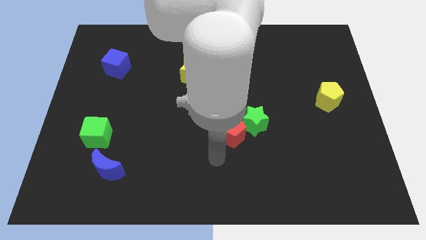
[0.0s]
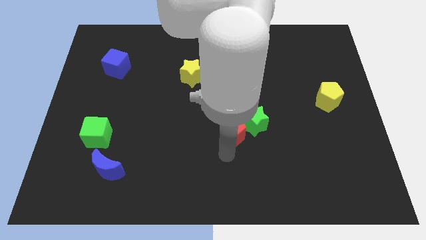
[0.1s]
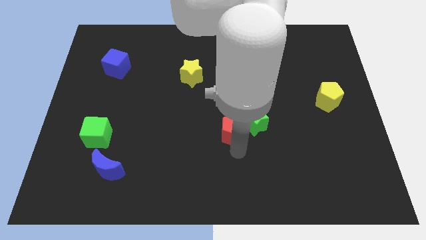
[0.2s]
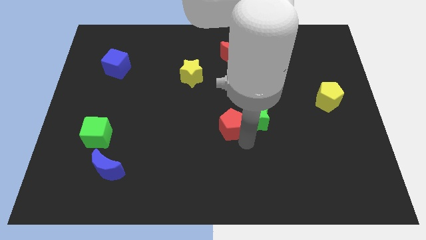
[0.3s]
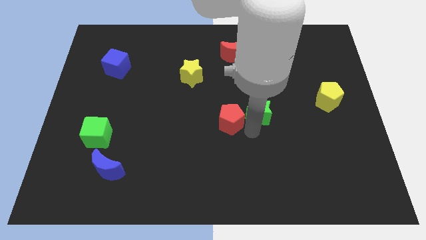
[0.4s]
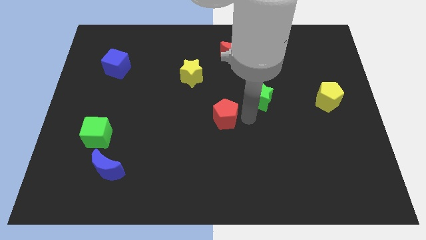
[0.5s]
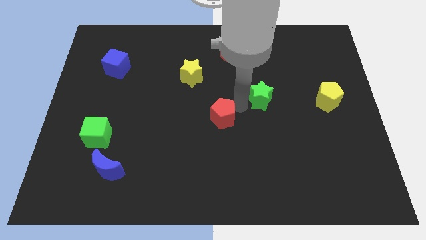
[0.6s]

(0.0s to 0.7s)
move the red pentagon away from the green star

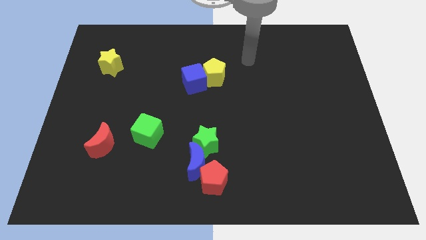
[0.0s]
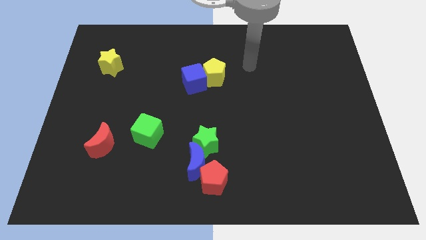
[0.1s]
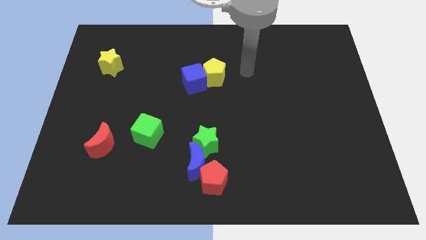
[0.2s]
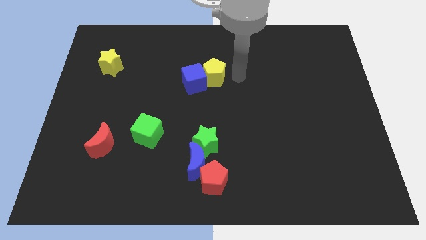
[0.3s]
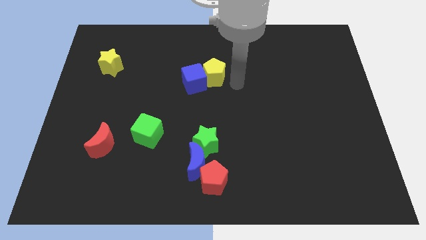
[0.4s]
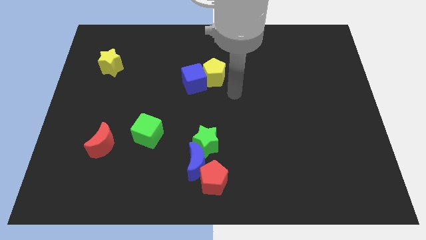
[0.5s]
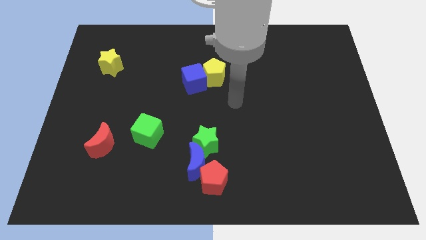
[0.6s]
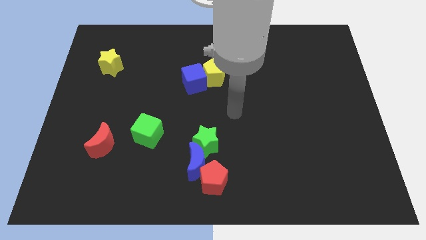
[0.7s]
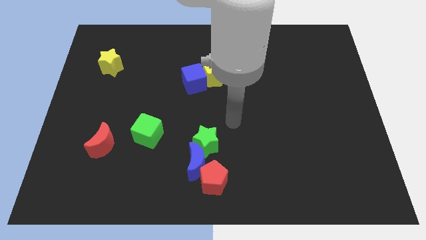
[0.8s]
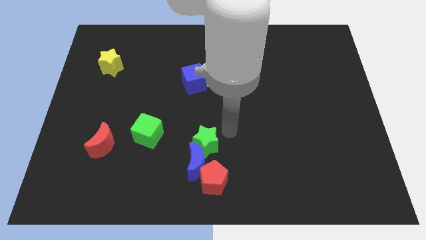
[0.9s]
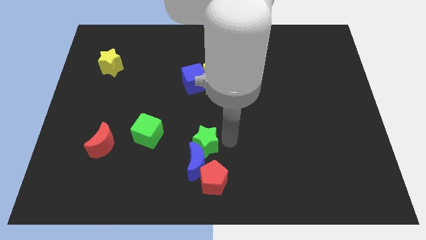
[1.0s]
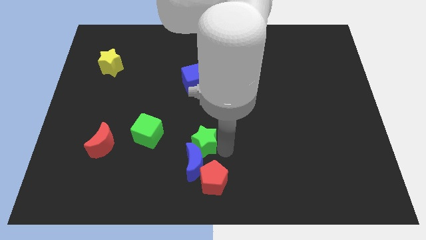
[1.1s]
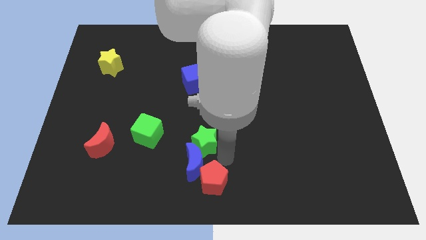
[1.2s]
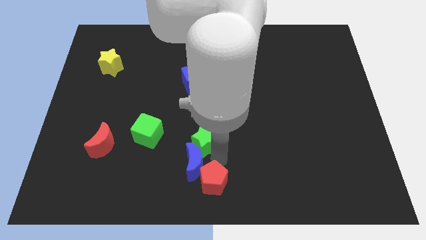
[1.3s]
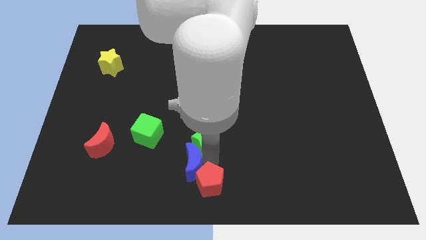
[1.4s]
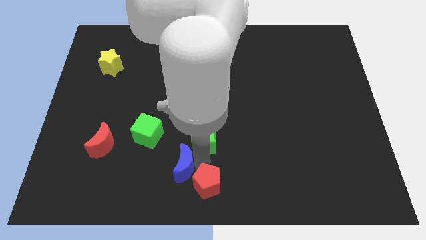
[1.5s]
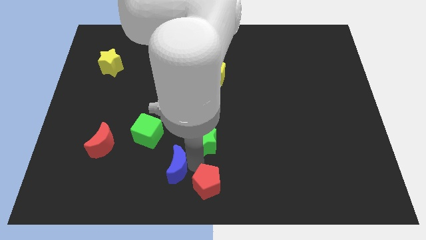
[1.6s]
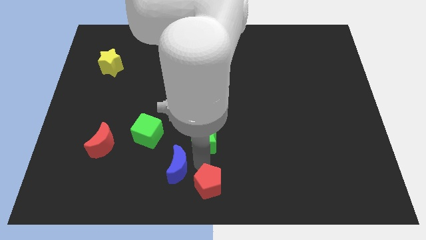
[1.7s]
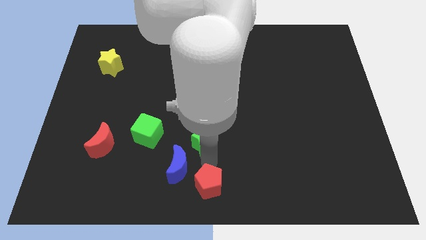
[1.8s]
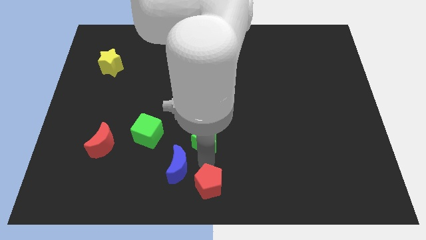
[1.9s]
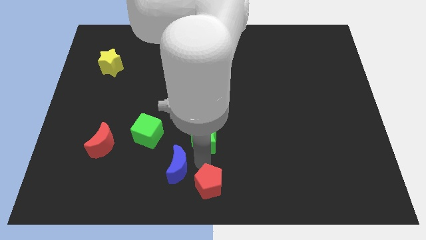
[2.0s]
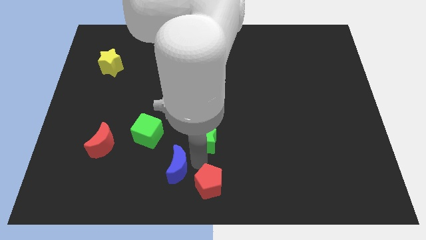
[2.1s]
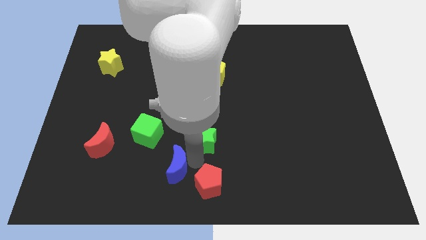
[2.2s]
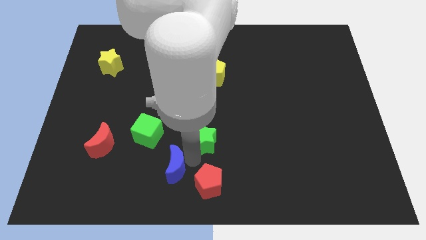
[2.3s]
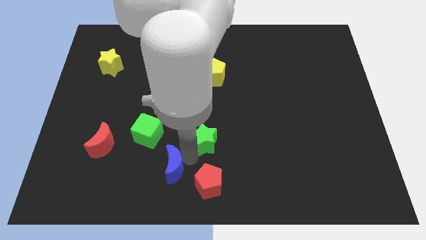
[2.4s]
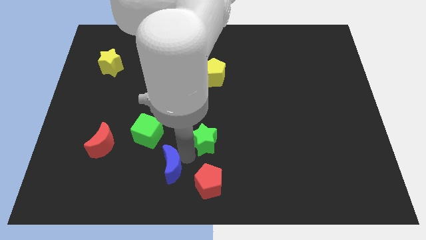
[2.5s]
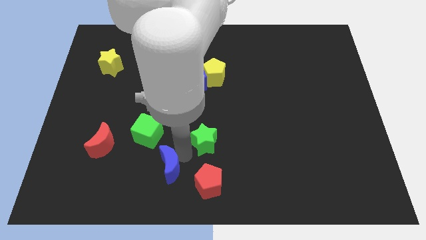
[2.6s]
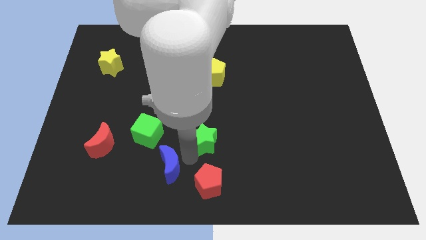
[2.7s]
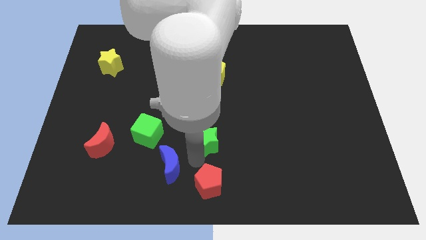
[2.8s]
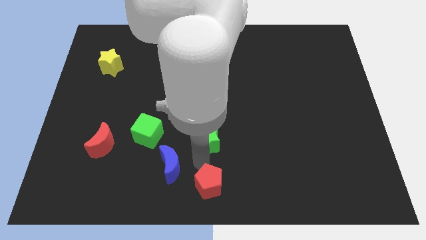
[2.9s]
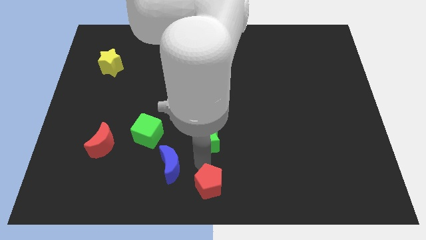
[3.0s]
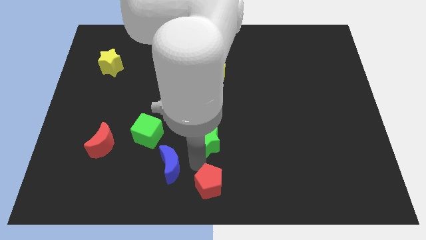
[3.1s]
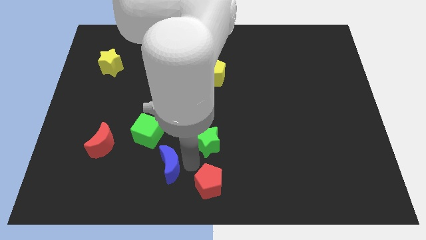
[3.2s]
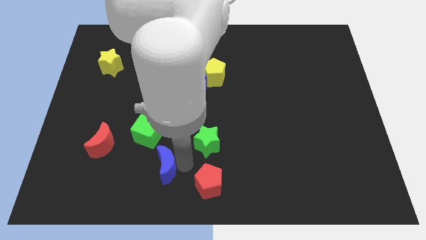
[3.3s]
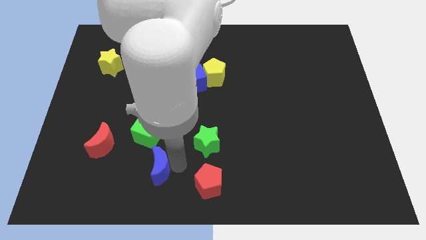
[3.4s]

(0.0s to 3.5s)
separate the blue moon from the green star and red pentagon

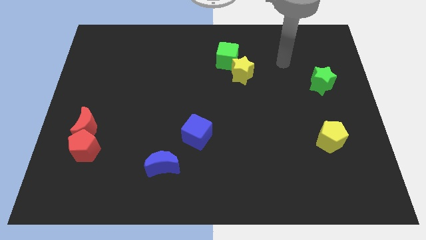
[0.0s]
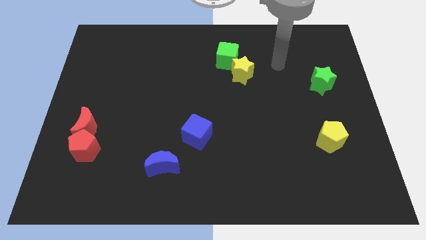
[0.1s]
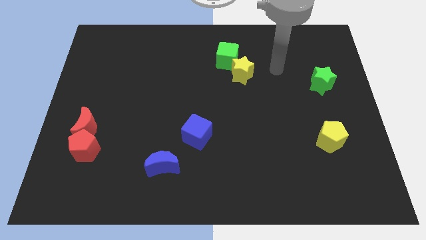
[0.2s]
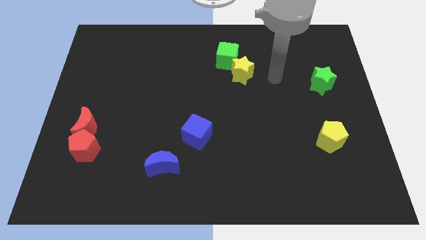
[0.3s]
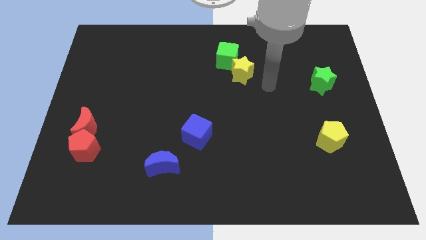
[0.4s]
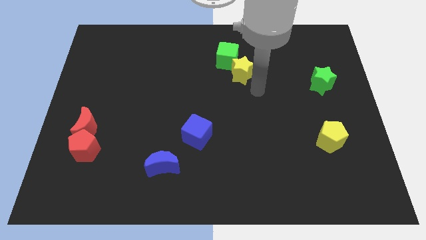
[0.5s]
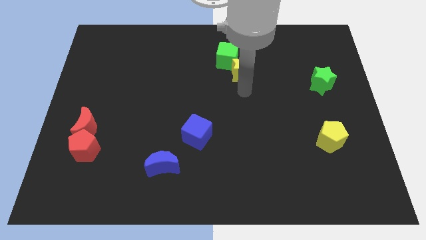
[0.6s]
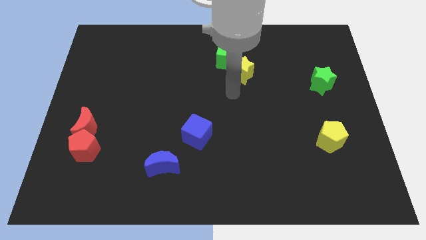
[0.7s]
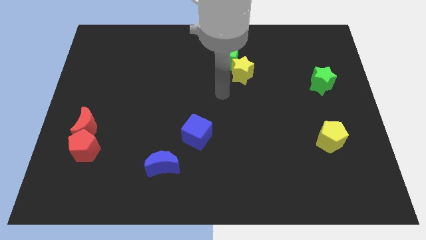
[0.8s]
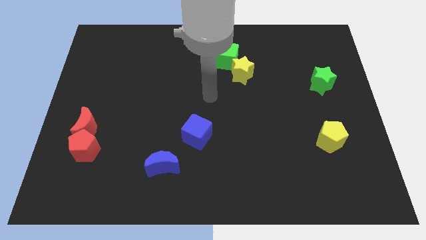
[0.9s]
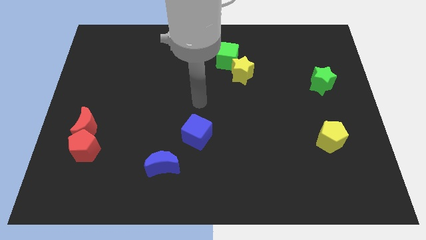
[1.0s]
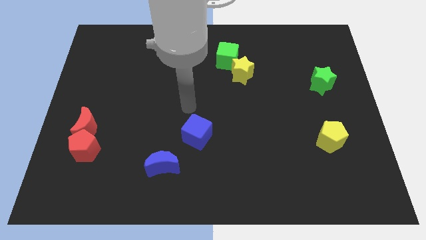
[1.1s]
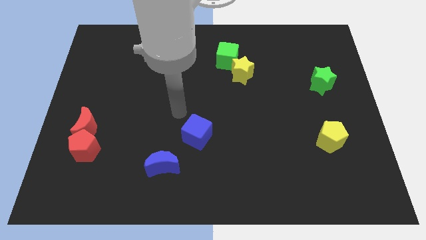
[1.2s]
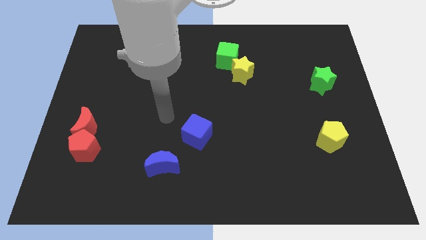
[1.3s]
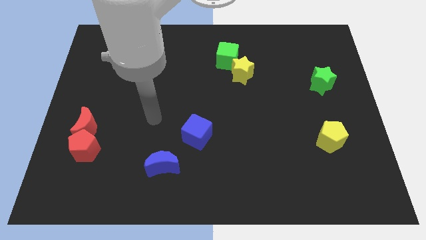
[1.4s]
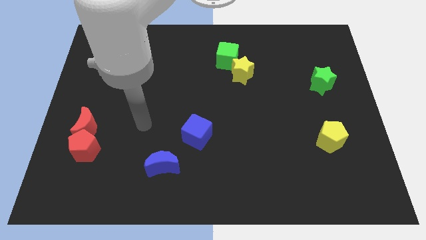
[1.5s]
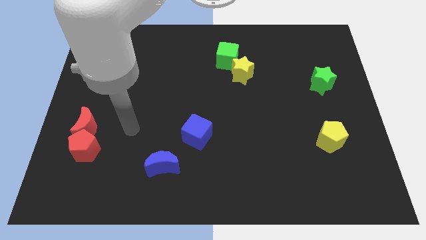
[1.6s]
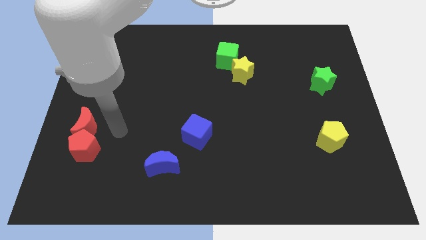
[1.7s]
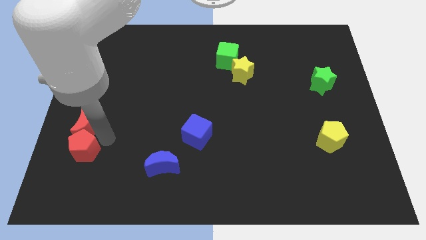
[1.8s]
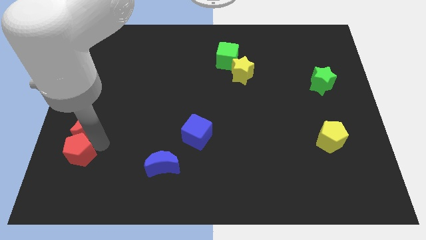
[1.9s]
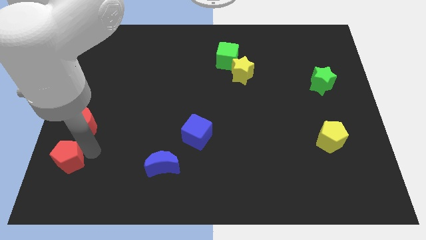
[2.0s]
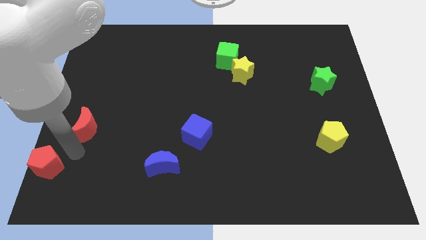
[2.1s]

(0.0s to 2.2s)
pull the red moon apart from the red pentagon

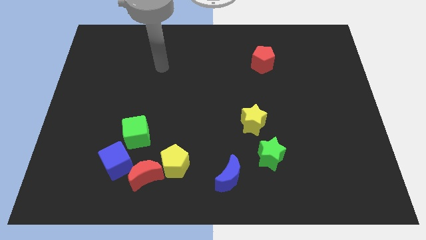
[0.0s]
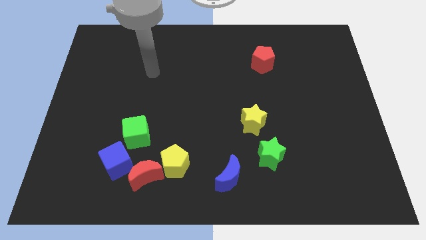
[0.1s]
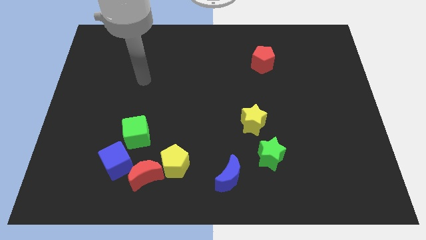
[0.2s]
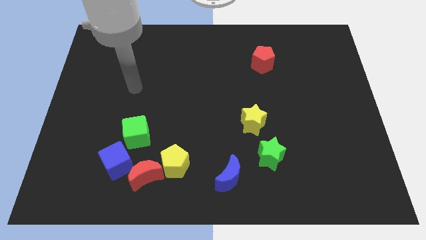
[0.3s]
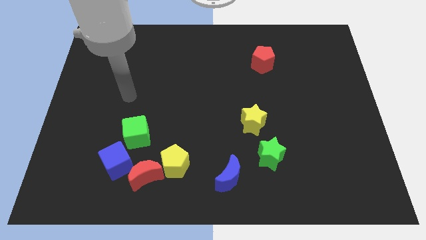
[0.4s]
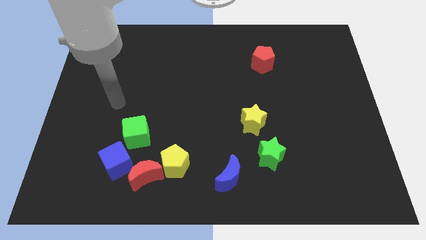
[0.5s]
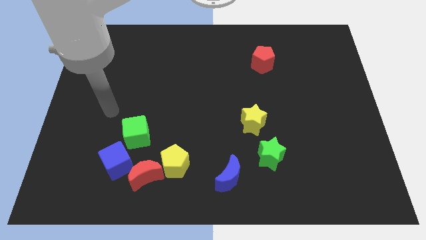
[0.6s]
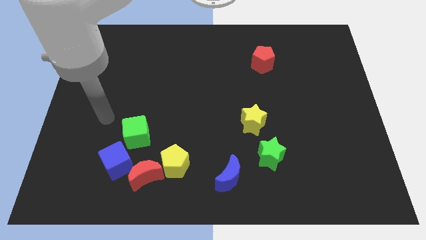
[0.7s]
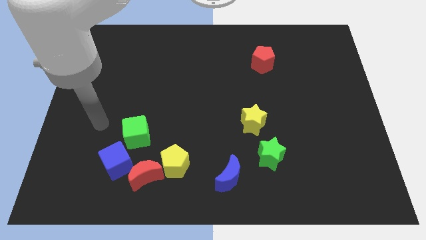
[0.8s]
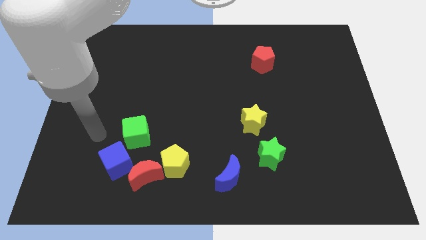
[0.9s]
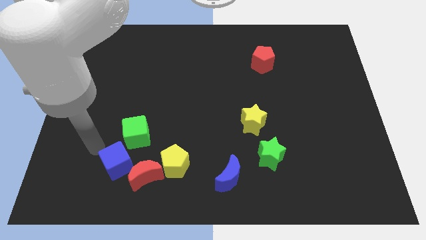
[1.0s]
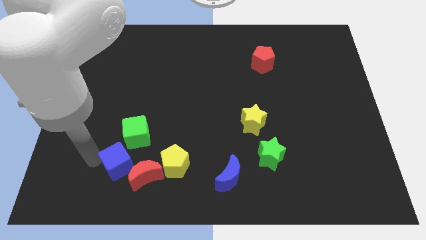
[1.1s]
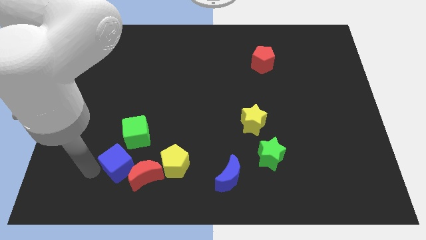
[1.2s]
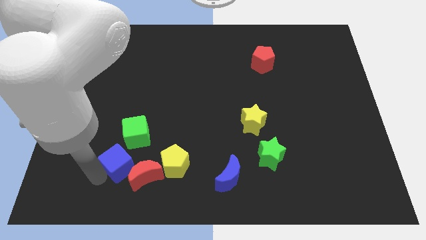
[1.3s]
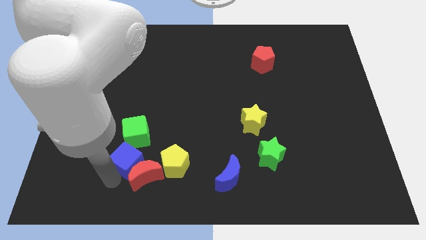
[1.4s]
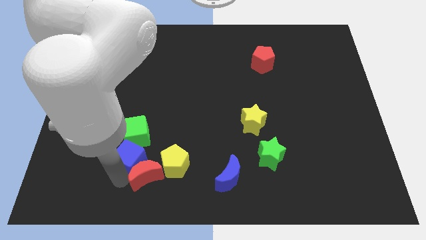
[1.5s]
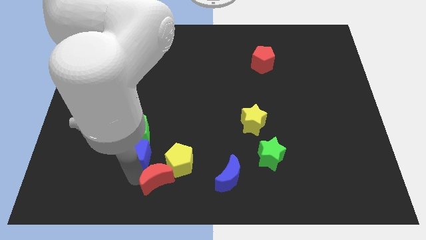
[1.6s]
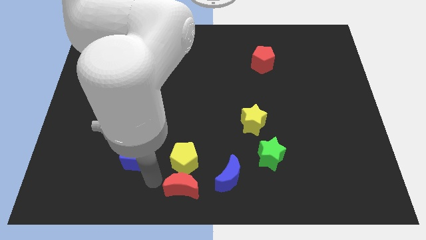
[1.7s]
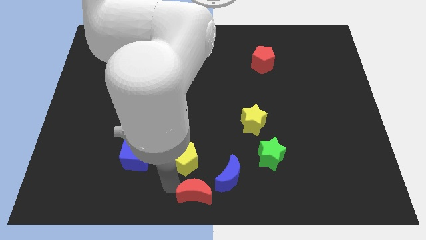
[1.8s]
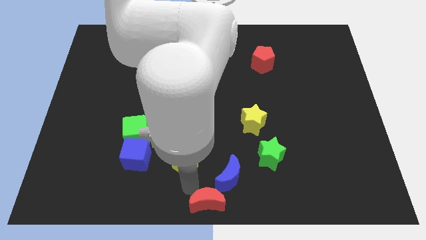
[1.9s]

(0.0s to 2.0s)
separate the yellow pentagon from the red moon

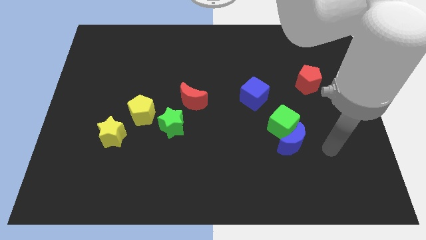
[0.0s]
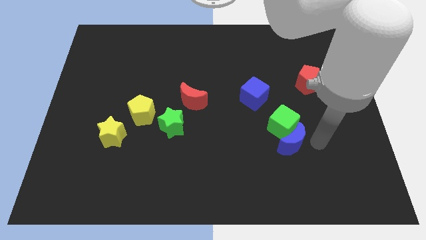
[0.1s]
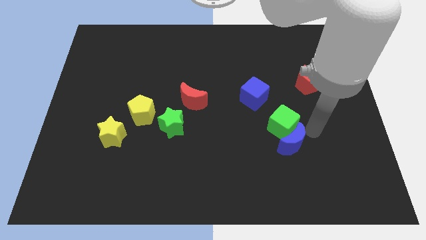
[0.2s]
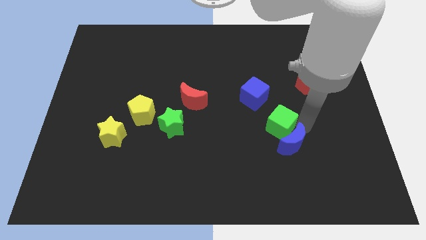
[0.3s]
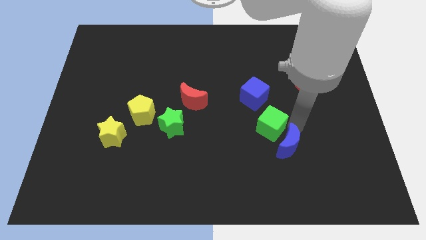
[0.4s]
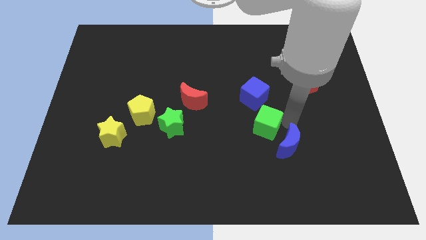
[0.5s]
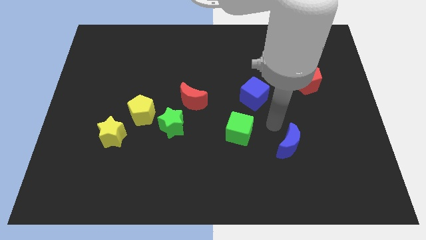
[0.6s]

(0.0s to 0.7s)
separate the blue moon from the green cube

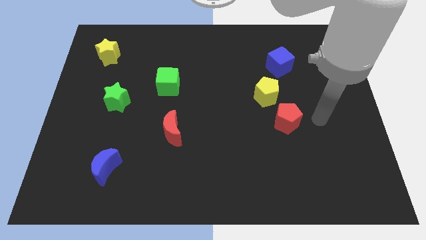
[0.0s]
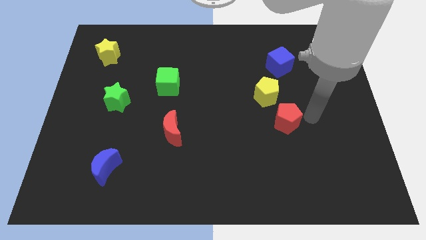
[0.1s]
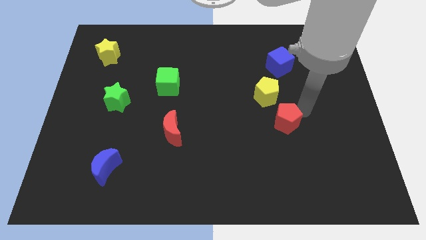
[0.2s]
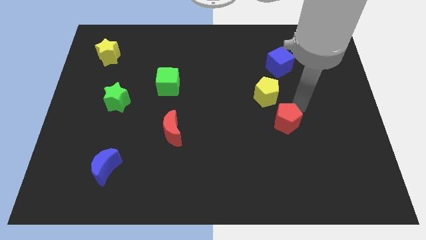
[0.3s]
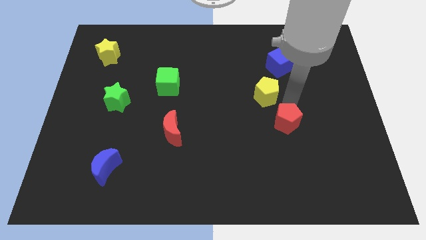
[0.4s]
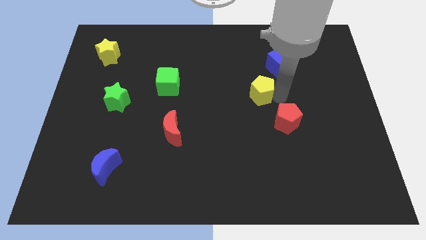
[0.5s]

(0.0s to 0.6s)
move the red pentagon away from the yellow pentagon
